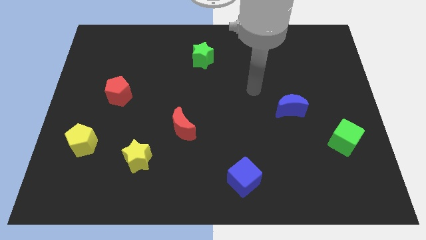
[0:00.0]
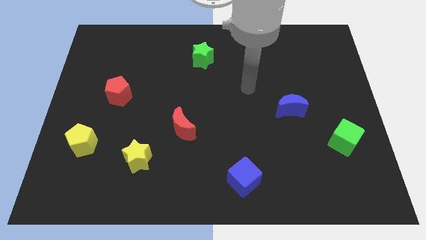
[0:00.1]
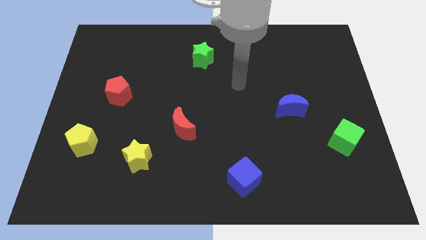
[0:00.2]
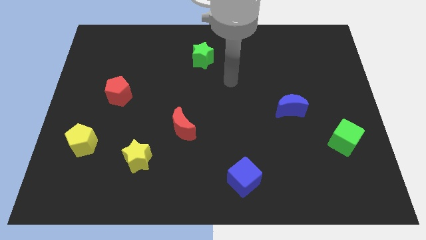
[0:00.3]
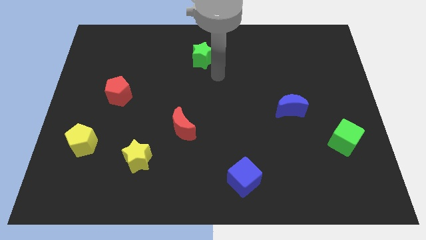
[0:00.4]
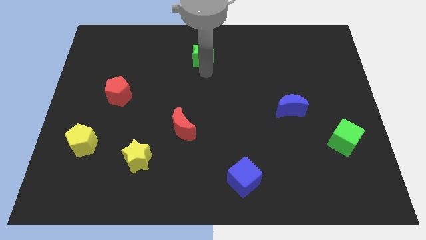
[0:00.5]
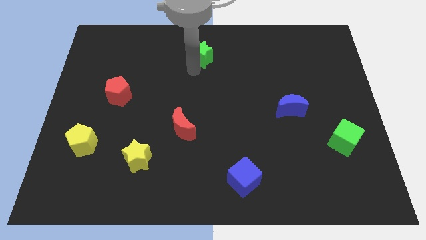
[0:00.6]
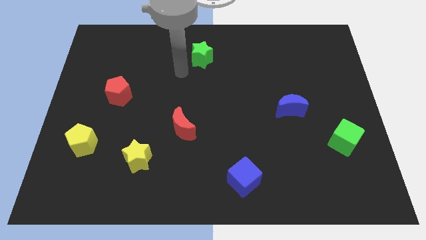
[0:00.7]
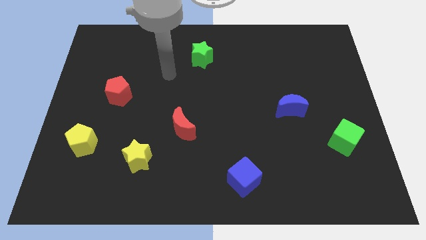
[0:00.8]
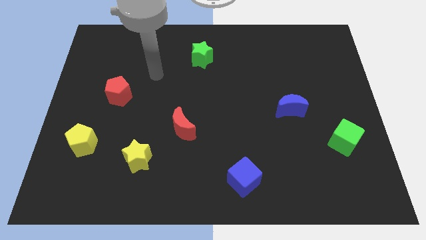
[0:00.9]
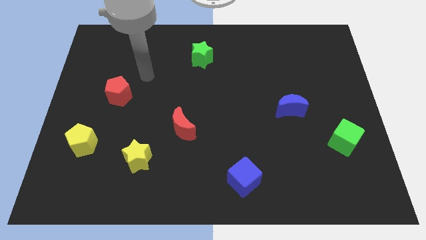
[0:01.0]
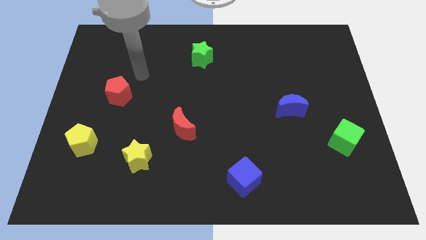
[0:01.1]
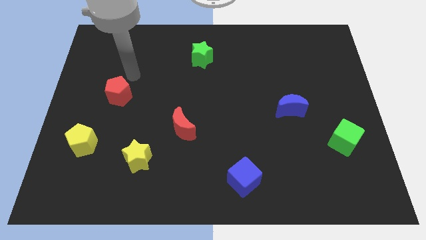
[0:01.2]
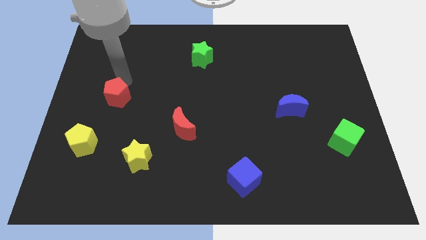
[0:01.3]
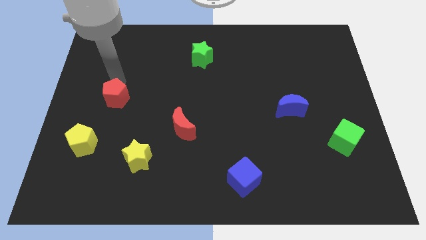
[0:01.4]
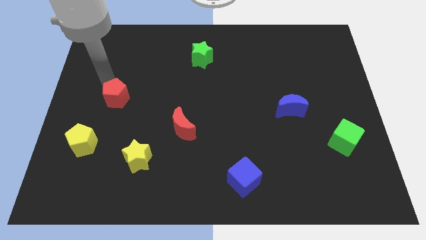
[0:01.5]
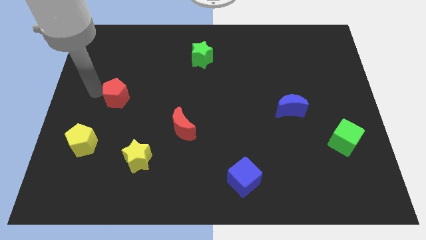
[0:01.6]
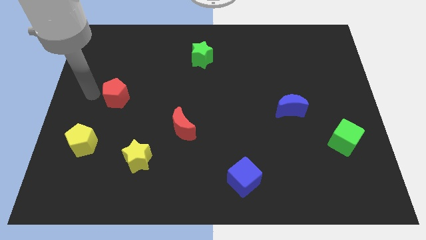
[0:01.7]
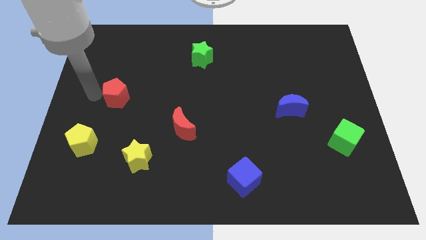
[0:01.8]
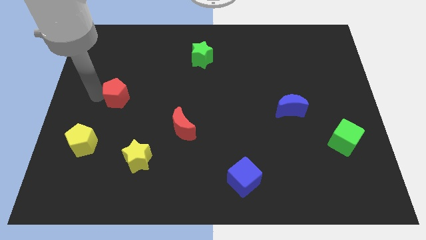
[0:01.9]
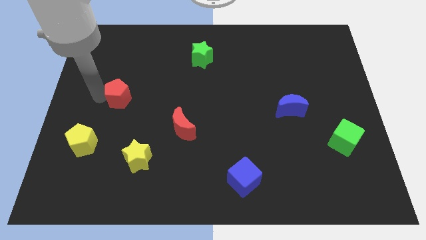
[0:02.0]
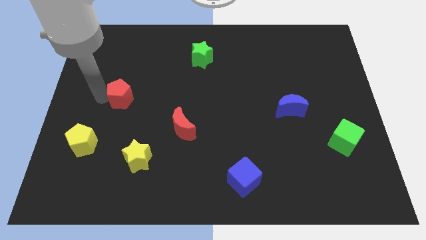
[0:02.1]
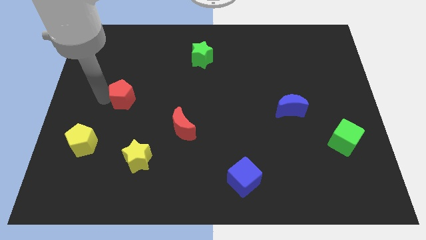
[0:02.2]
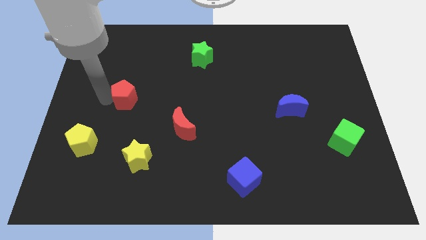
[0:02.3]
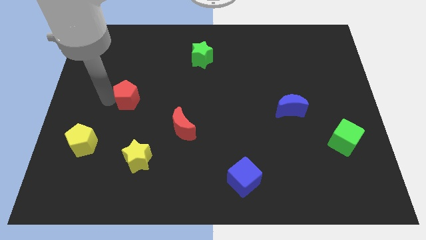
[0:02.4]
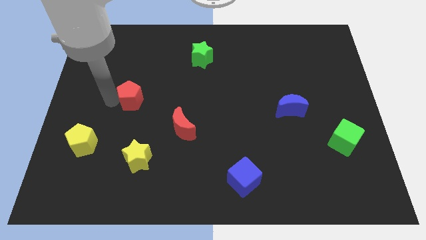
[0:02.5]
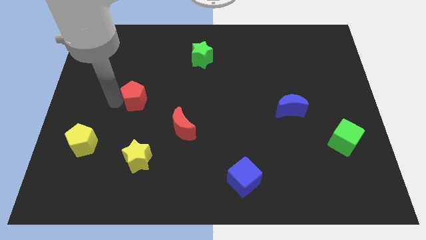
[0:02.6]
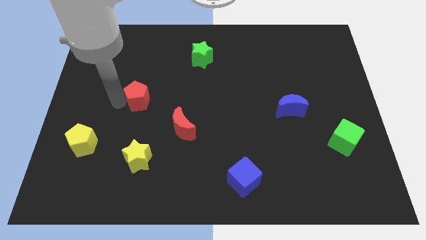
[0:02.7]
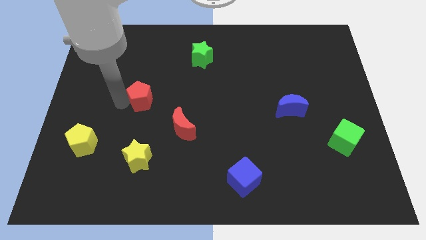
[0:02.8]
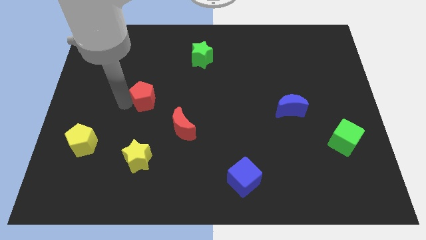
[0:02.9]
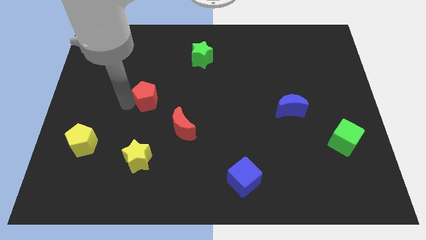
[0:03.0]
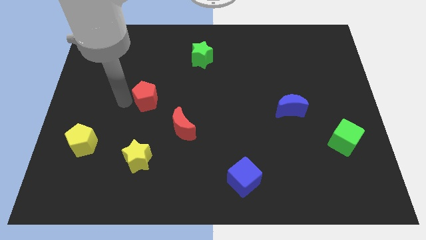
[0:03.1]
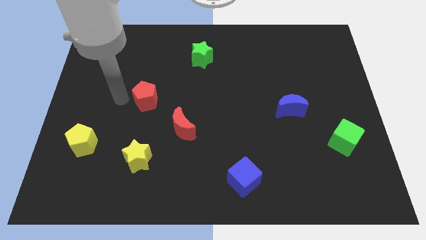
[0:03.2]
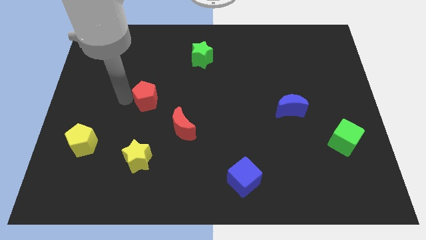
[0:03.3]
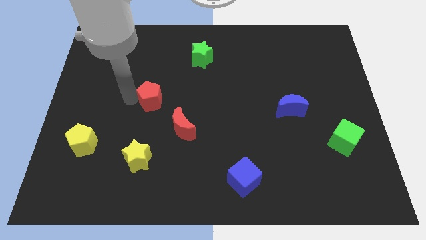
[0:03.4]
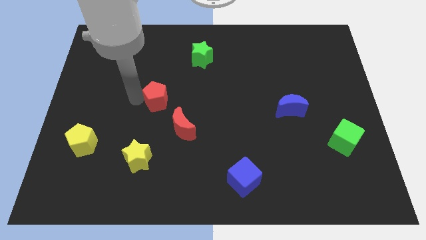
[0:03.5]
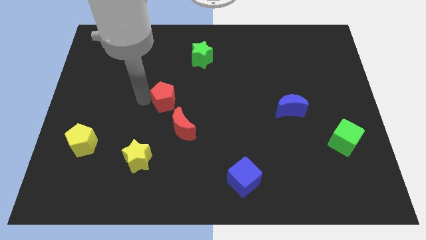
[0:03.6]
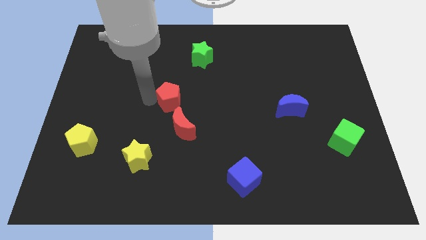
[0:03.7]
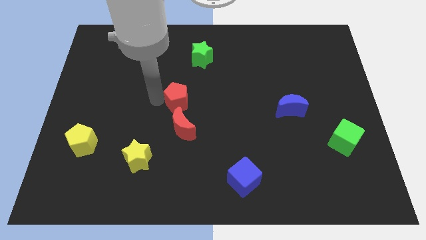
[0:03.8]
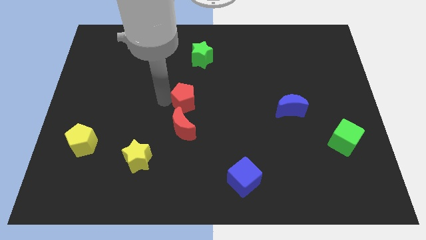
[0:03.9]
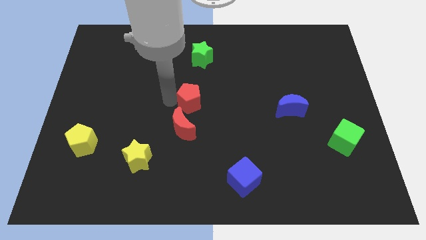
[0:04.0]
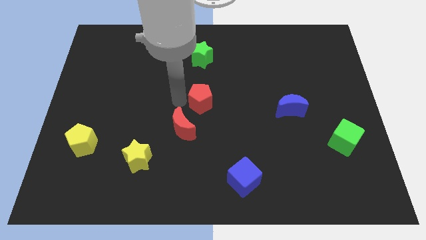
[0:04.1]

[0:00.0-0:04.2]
slide the red pentagon to the right

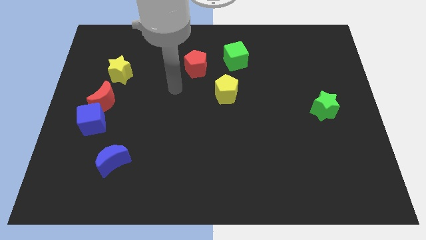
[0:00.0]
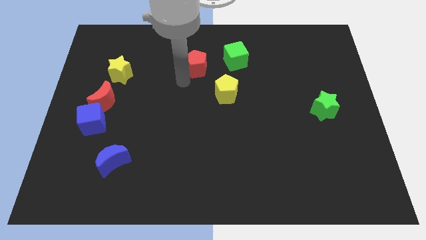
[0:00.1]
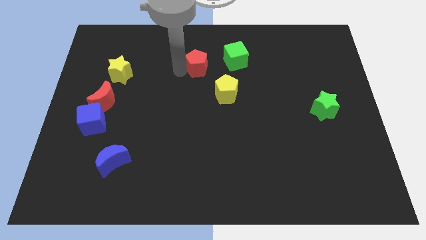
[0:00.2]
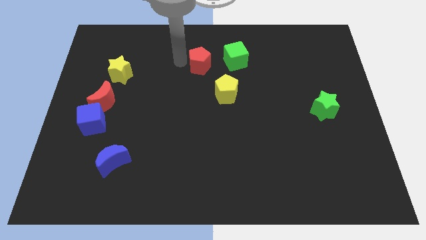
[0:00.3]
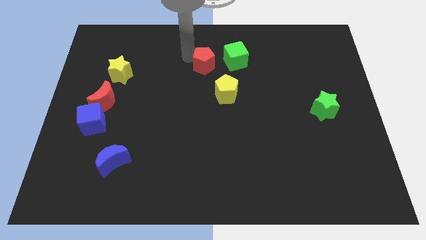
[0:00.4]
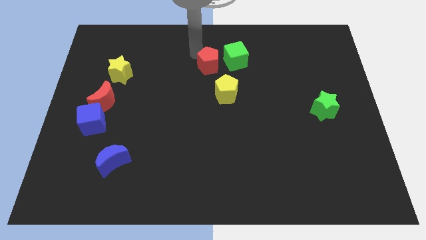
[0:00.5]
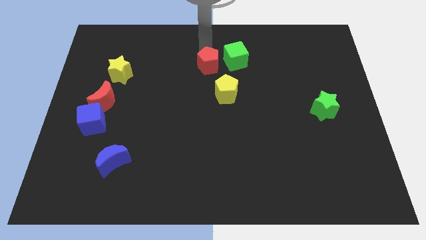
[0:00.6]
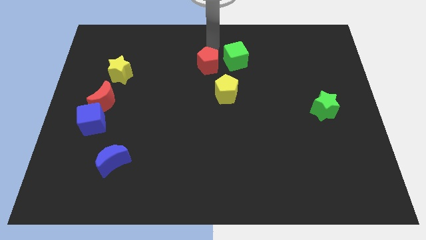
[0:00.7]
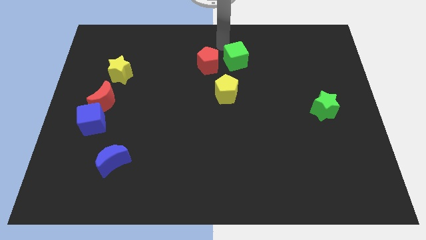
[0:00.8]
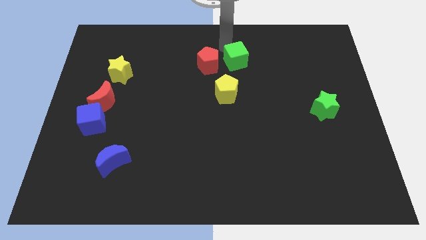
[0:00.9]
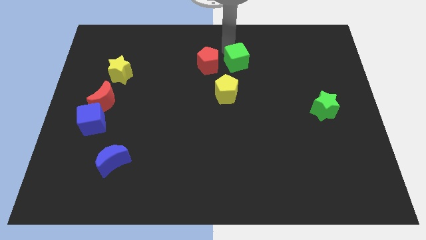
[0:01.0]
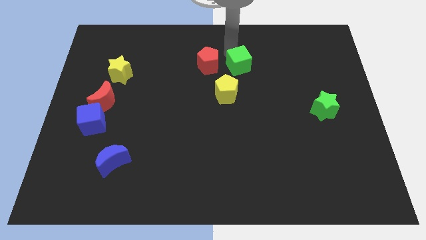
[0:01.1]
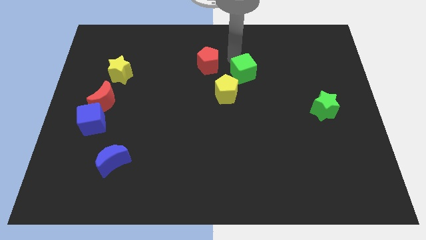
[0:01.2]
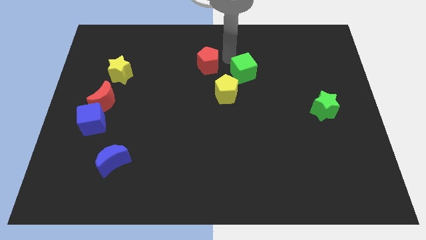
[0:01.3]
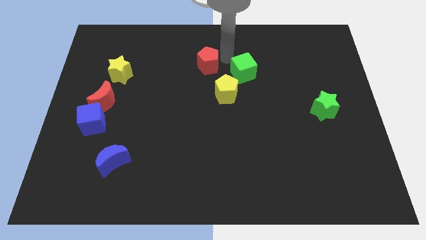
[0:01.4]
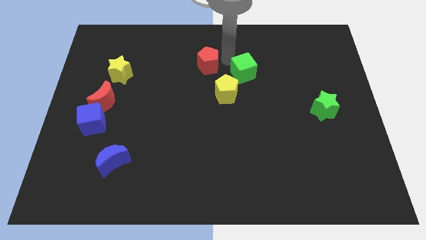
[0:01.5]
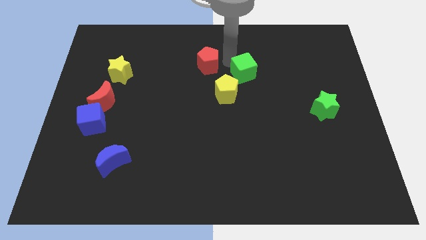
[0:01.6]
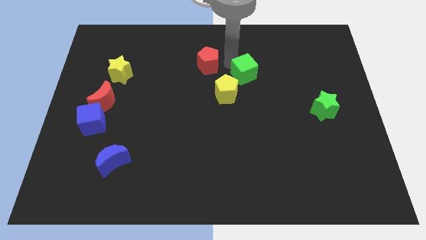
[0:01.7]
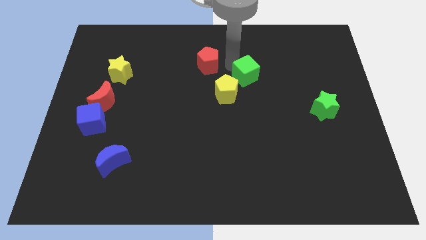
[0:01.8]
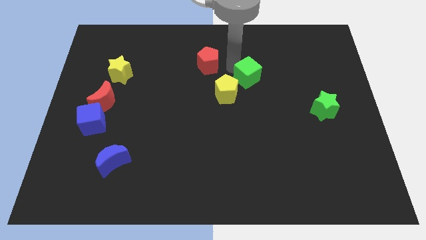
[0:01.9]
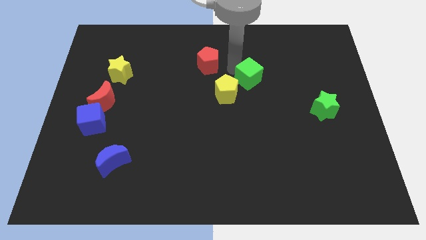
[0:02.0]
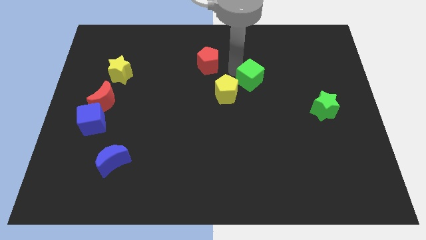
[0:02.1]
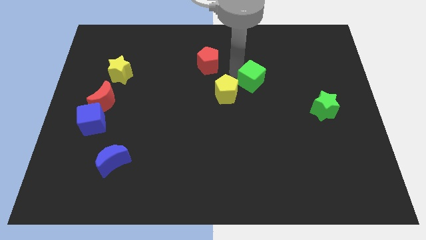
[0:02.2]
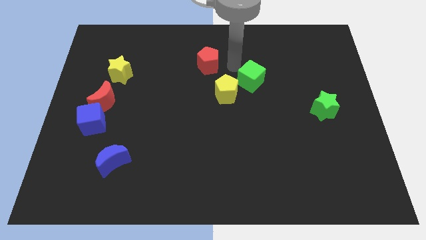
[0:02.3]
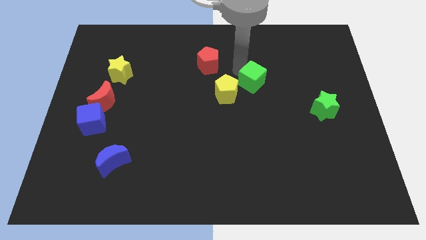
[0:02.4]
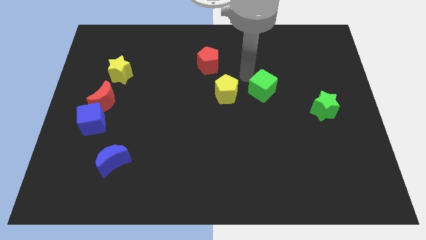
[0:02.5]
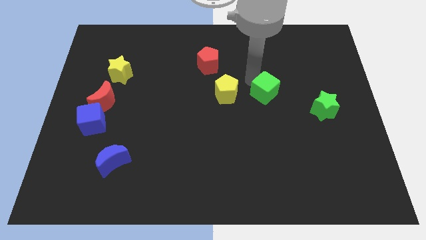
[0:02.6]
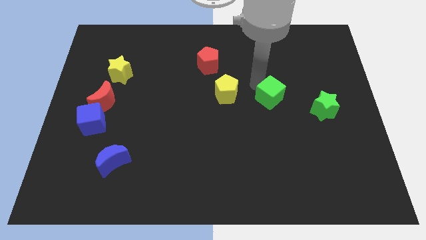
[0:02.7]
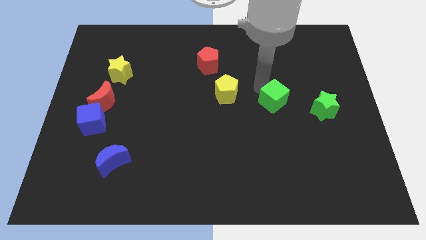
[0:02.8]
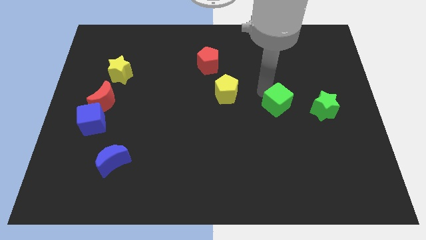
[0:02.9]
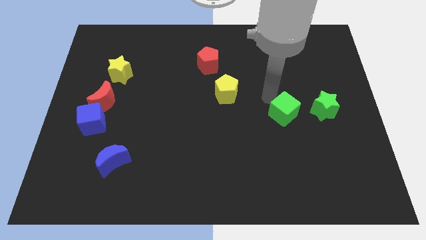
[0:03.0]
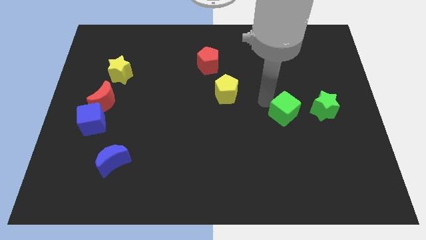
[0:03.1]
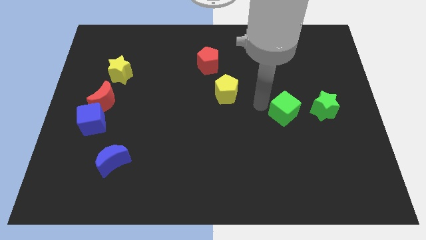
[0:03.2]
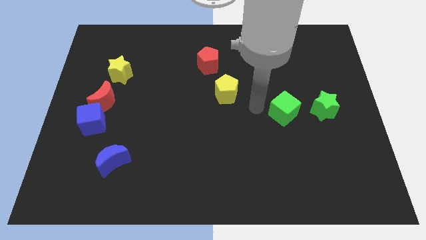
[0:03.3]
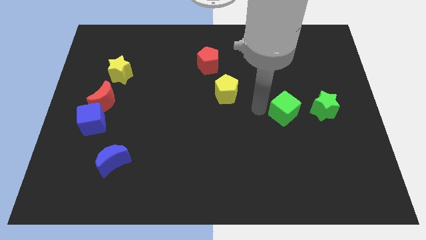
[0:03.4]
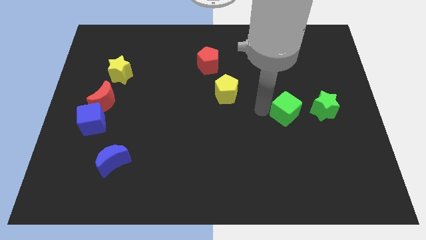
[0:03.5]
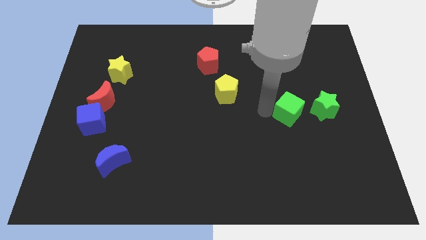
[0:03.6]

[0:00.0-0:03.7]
move the green cube diagonally down and right

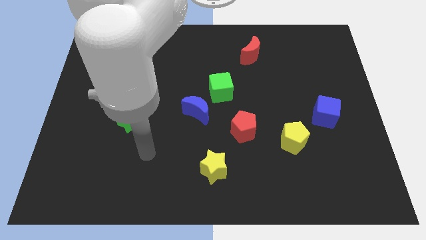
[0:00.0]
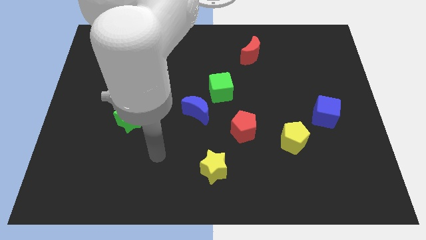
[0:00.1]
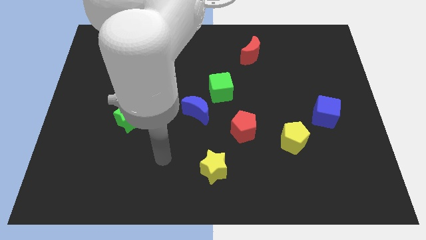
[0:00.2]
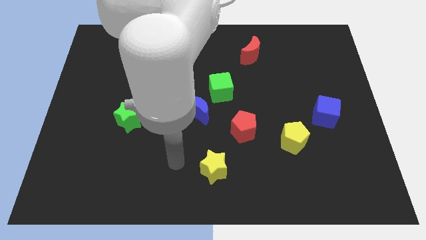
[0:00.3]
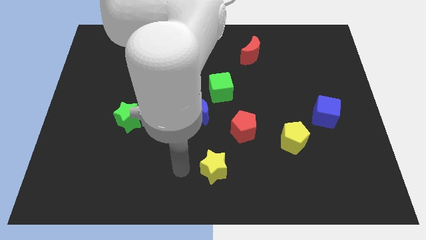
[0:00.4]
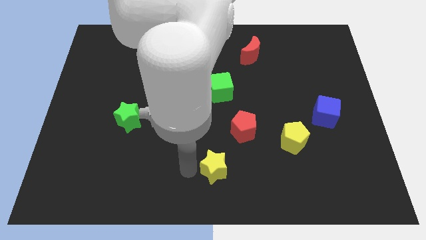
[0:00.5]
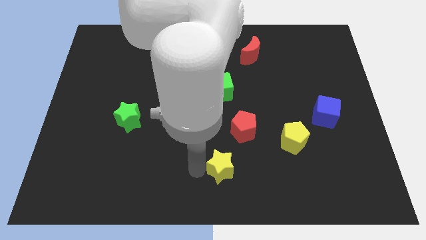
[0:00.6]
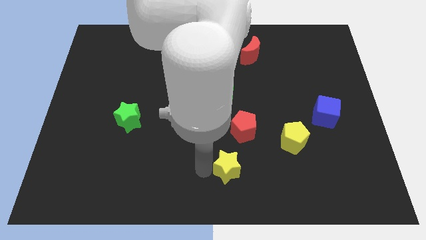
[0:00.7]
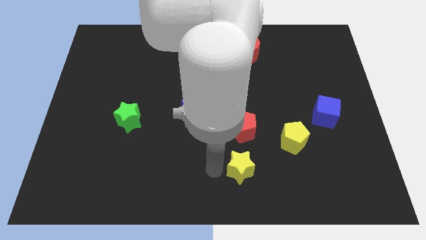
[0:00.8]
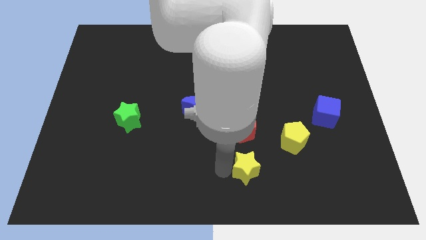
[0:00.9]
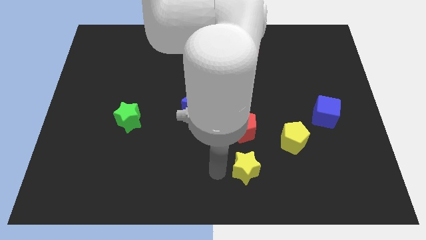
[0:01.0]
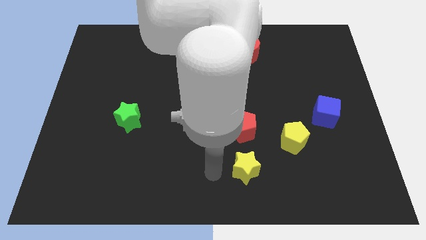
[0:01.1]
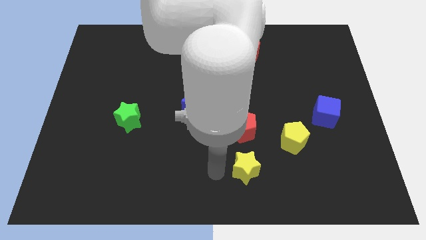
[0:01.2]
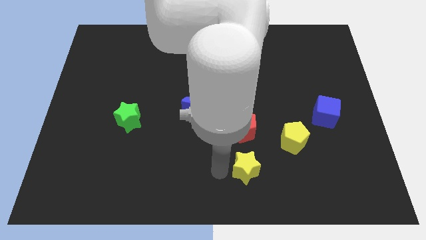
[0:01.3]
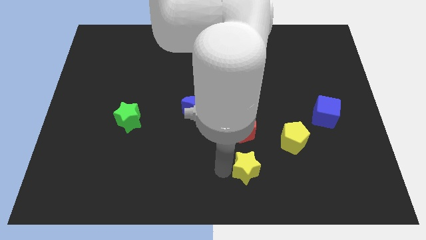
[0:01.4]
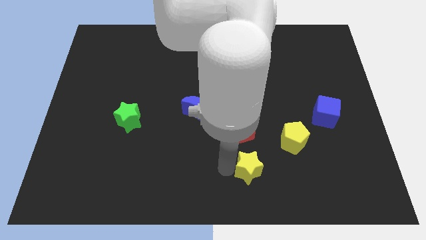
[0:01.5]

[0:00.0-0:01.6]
slightly push the yellow star to the right
